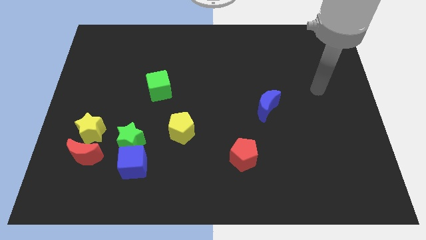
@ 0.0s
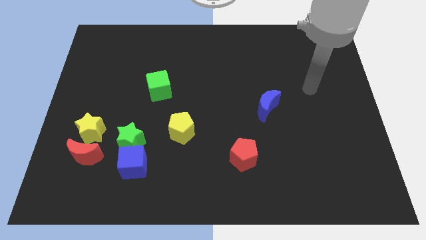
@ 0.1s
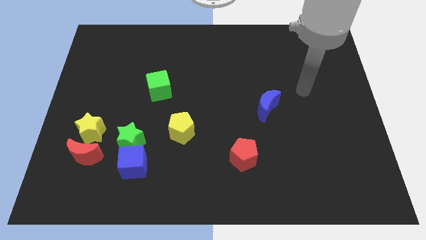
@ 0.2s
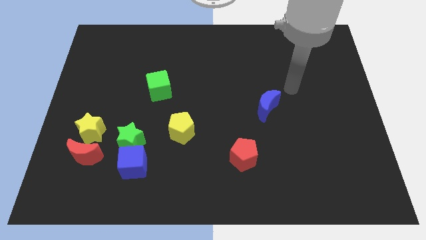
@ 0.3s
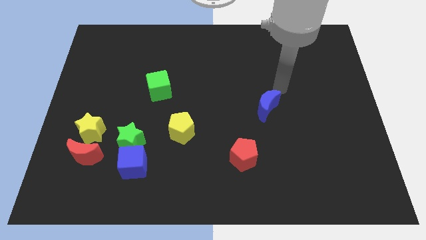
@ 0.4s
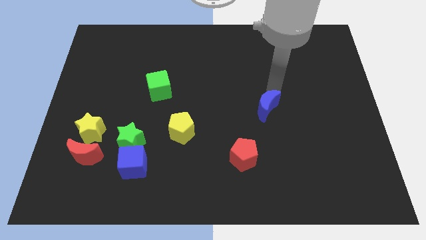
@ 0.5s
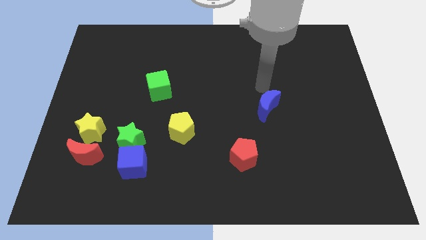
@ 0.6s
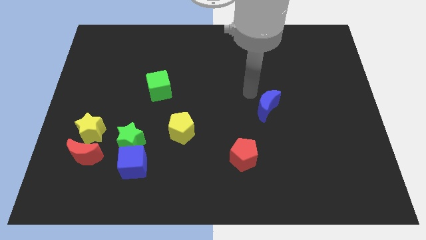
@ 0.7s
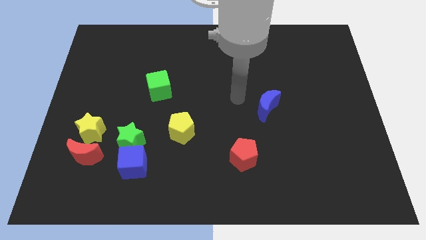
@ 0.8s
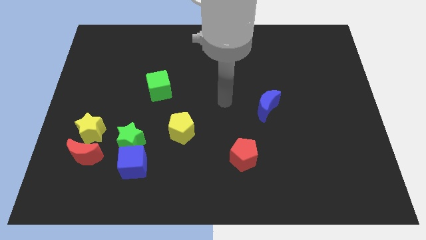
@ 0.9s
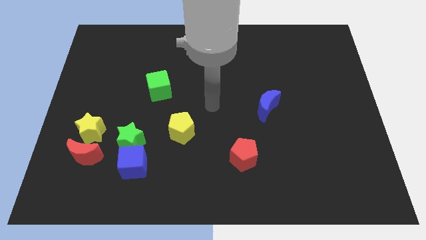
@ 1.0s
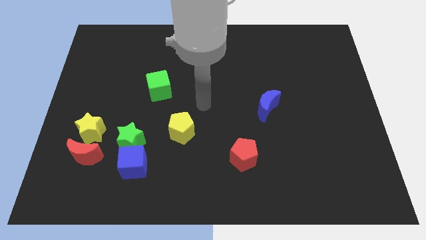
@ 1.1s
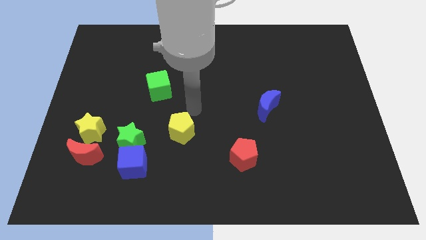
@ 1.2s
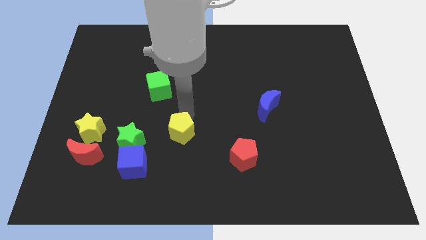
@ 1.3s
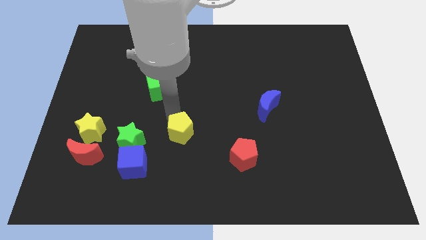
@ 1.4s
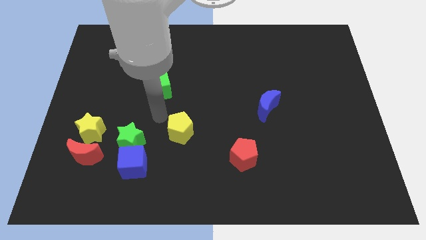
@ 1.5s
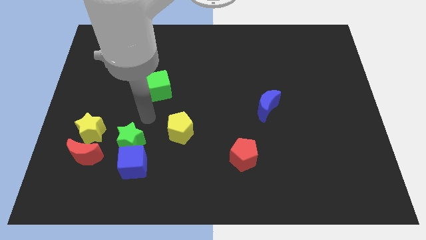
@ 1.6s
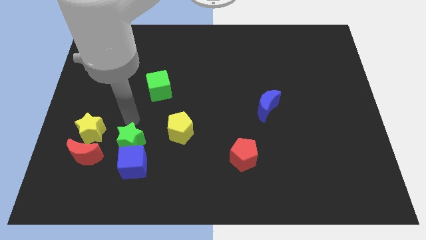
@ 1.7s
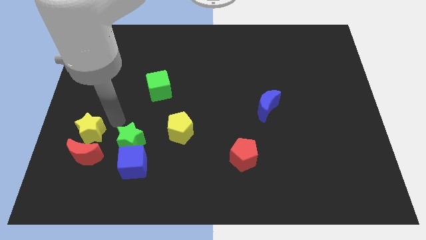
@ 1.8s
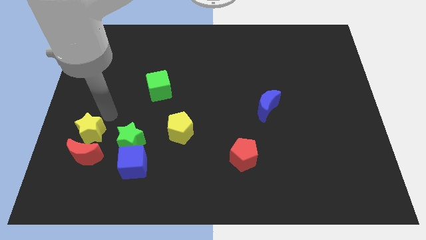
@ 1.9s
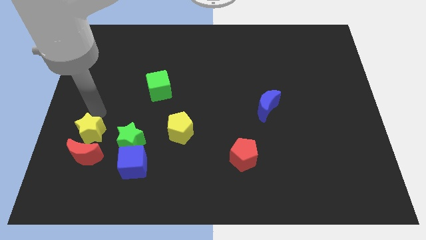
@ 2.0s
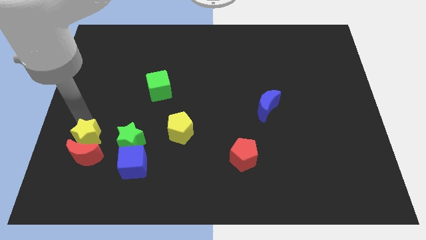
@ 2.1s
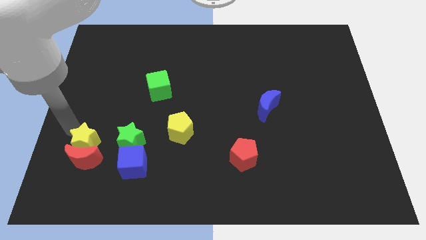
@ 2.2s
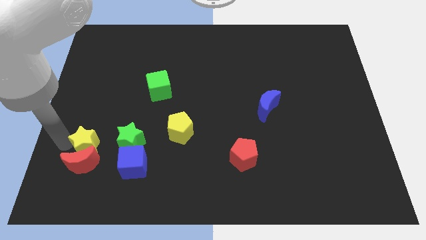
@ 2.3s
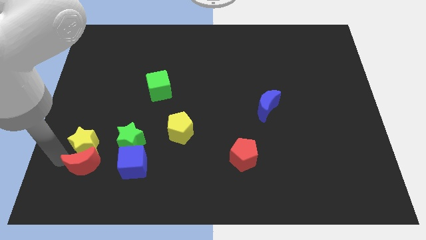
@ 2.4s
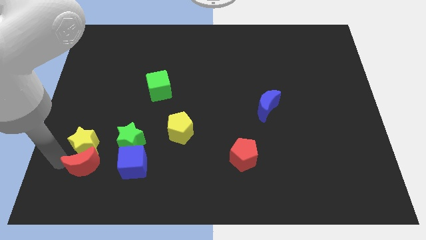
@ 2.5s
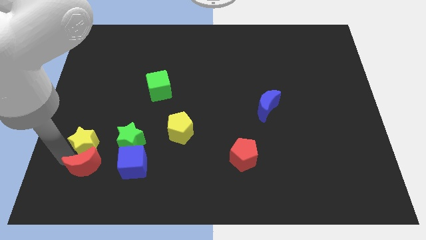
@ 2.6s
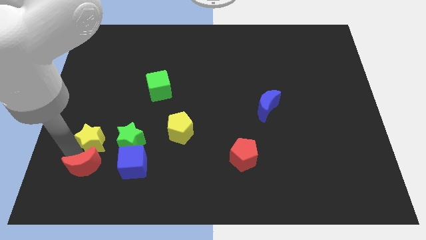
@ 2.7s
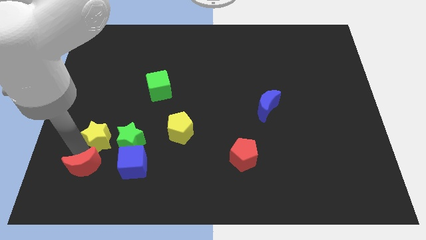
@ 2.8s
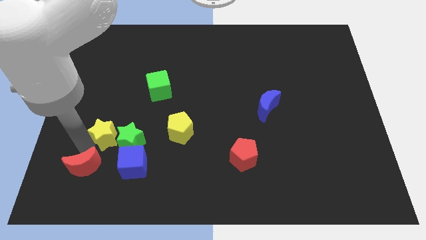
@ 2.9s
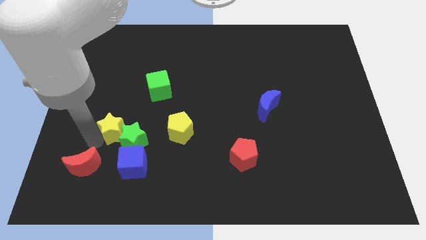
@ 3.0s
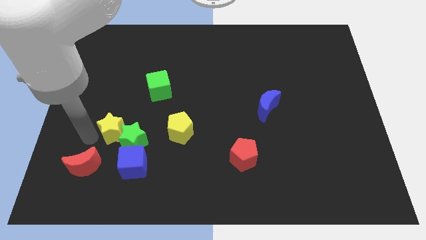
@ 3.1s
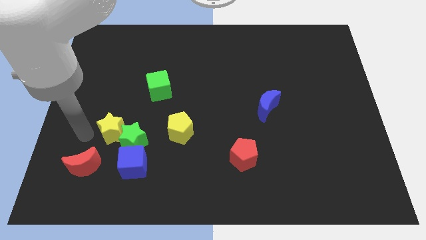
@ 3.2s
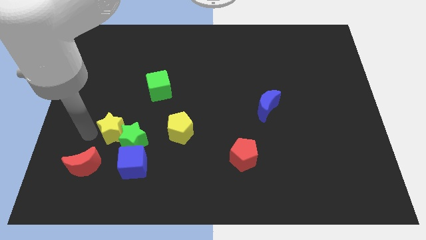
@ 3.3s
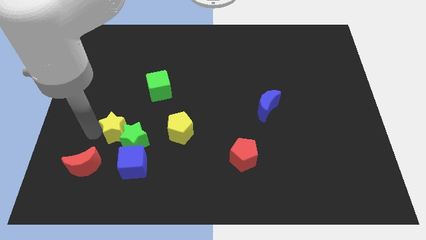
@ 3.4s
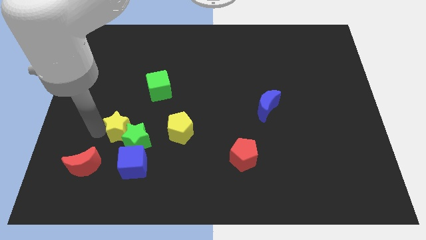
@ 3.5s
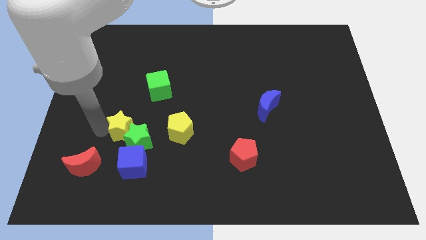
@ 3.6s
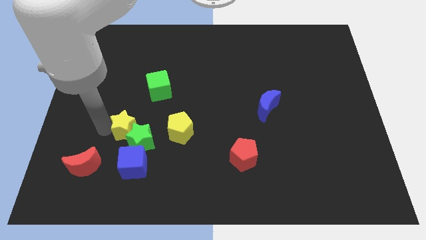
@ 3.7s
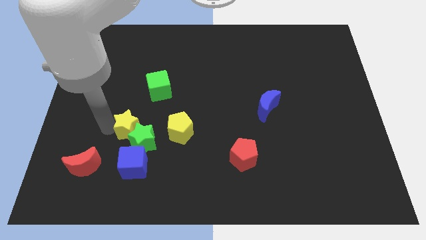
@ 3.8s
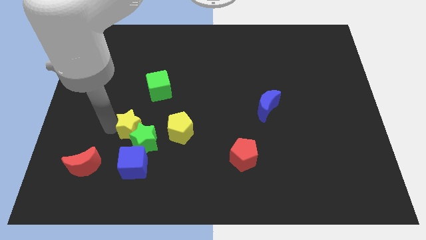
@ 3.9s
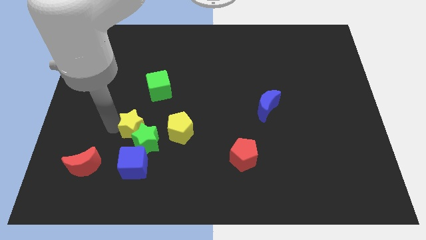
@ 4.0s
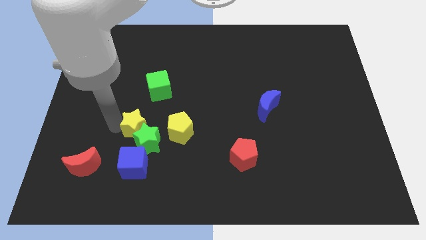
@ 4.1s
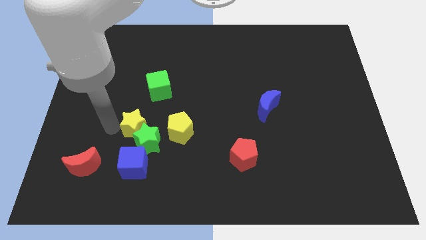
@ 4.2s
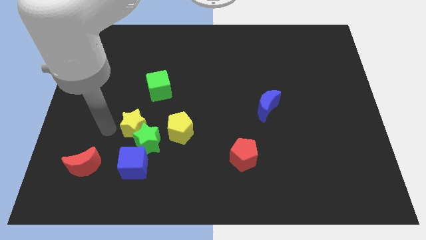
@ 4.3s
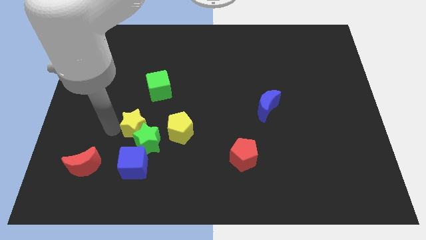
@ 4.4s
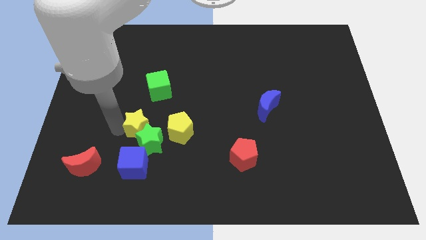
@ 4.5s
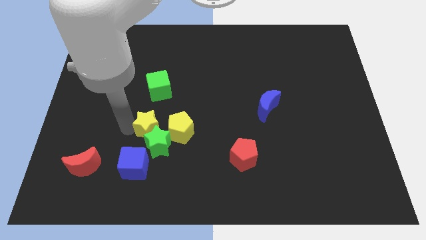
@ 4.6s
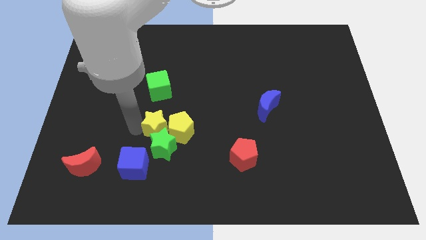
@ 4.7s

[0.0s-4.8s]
slide the yellow star next to the yellow pentagon

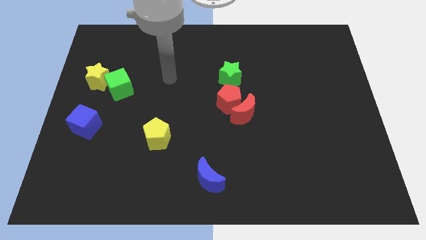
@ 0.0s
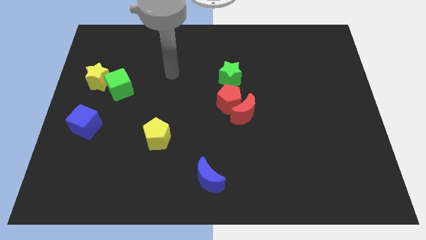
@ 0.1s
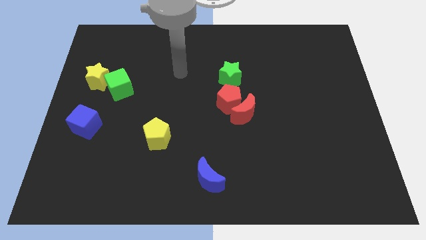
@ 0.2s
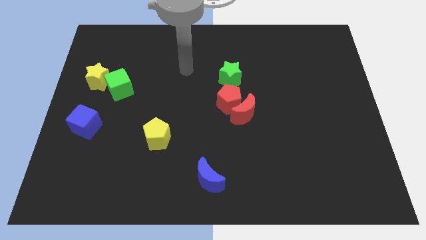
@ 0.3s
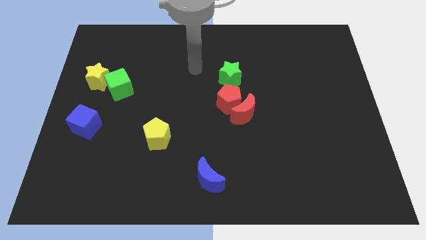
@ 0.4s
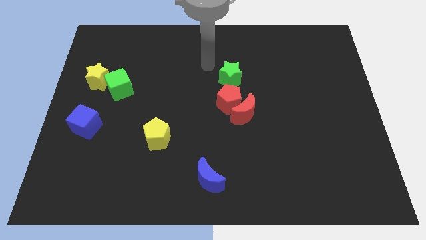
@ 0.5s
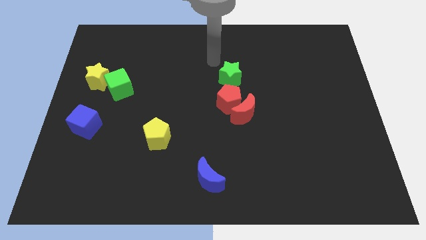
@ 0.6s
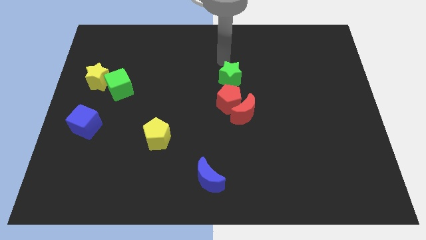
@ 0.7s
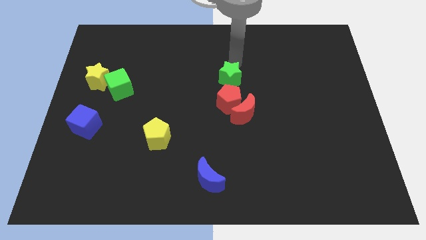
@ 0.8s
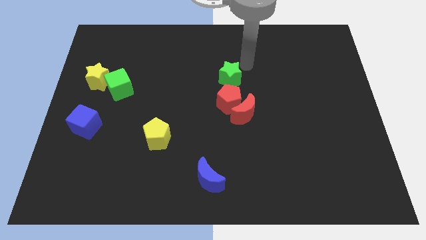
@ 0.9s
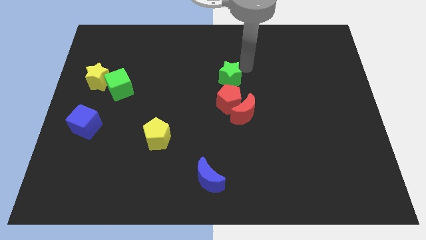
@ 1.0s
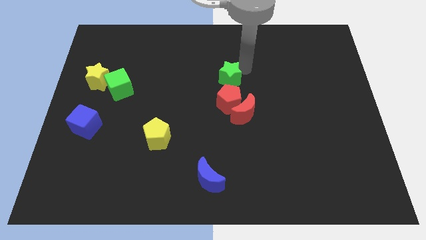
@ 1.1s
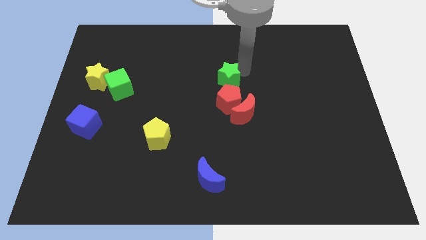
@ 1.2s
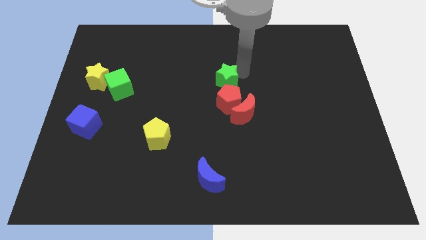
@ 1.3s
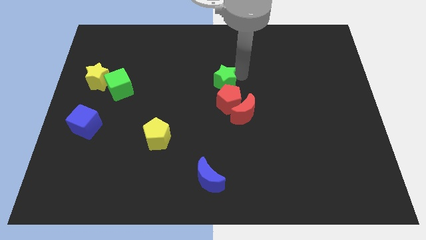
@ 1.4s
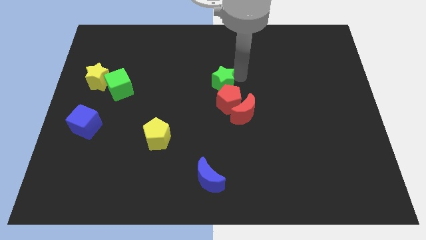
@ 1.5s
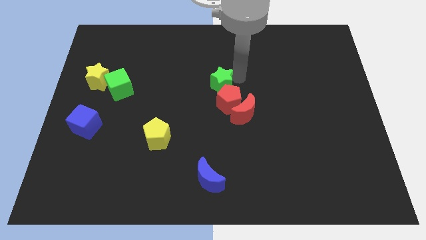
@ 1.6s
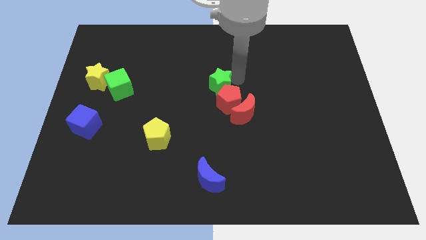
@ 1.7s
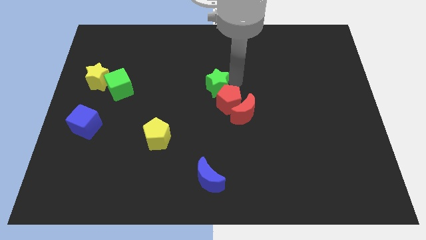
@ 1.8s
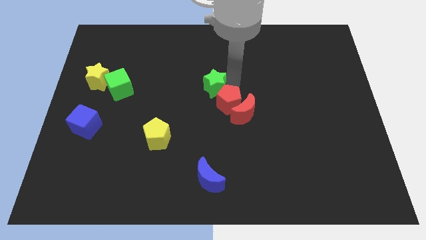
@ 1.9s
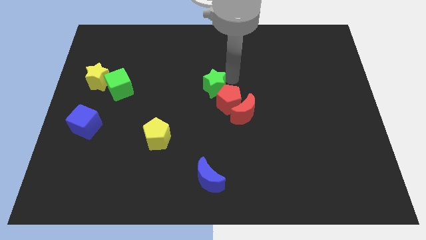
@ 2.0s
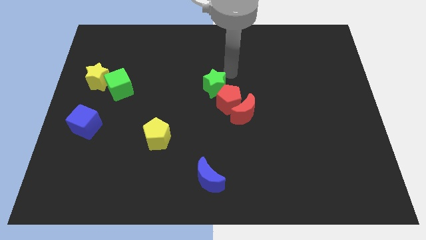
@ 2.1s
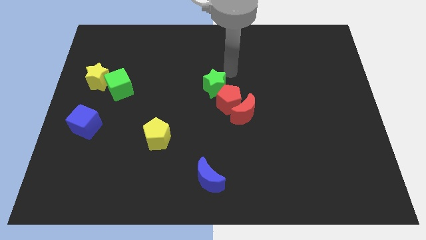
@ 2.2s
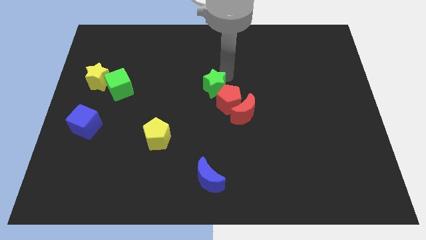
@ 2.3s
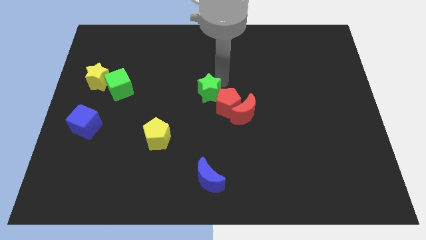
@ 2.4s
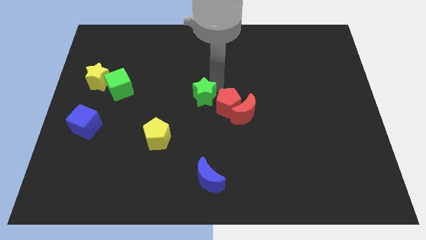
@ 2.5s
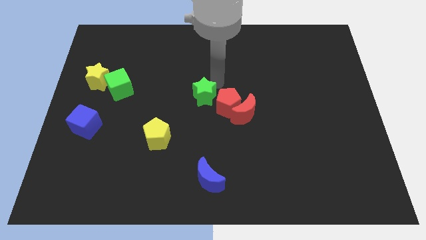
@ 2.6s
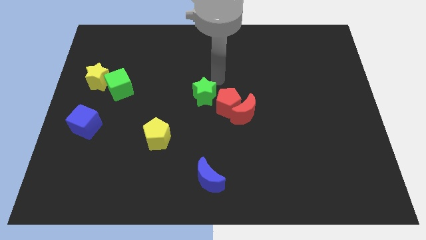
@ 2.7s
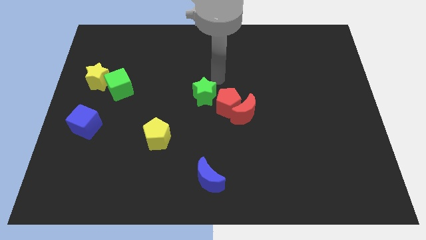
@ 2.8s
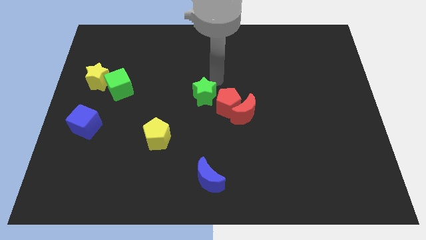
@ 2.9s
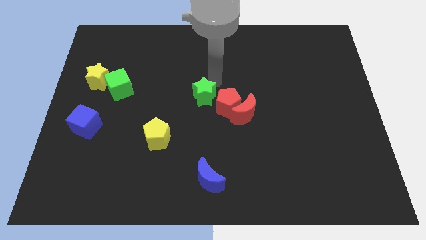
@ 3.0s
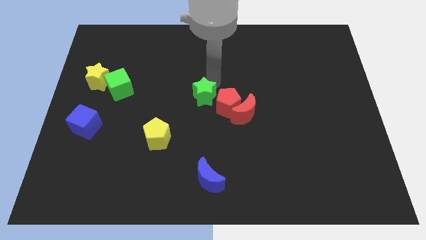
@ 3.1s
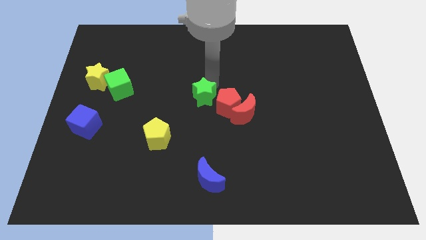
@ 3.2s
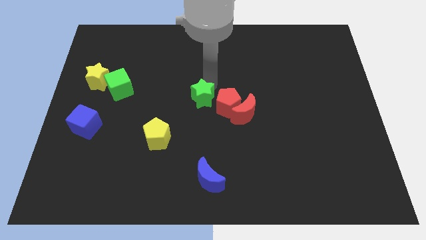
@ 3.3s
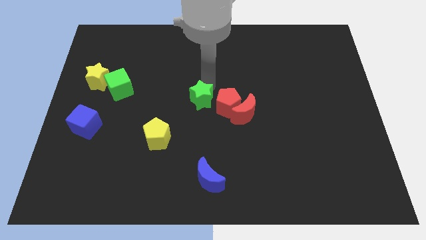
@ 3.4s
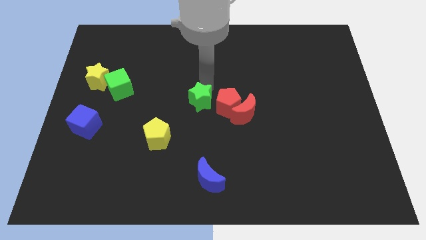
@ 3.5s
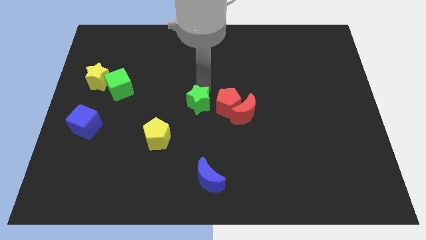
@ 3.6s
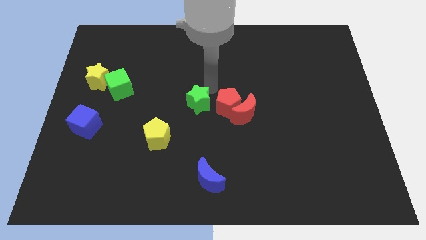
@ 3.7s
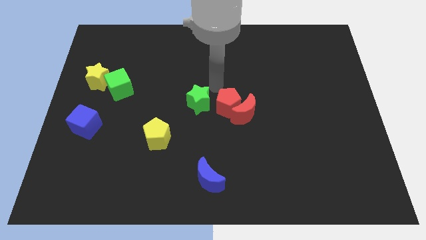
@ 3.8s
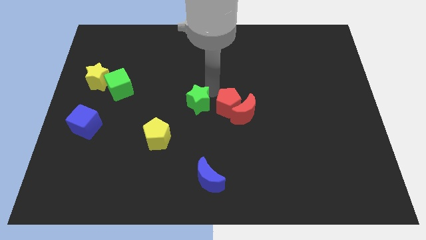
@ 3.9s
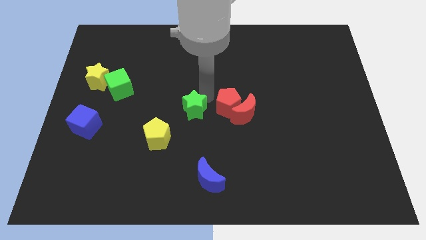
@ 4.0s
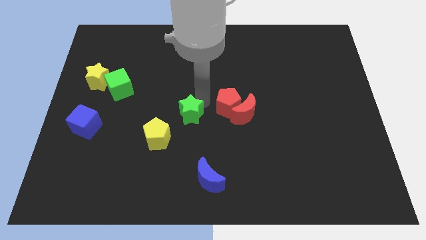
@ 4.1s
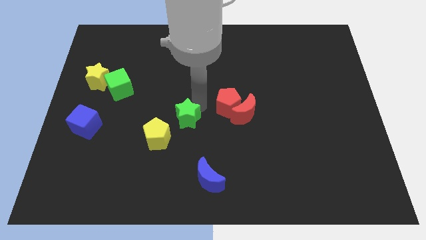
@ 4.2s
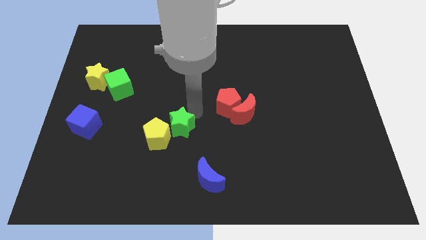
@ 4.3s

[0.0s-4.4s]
move the green star towards the yellow pentagon
